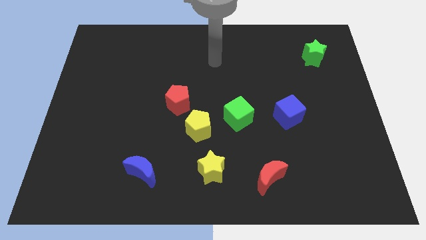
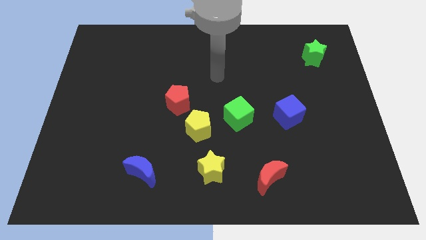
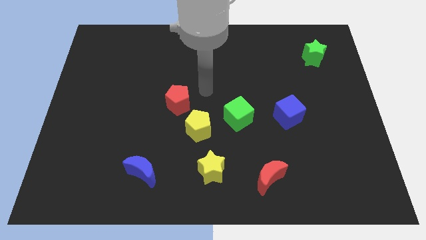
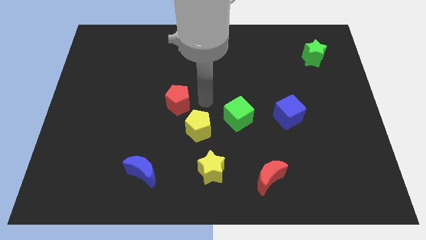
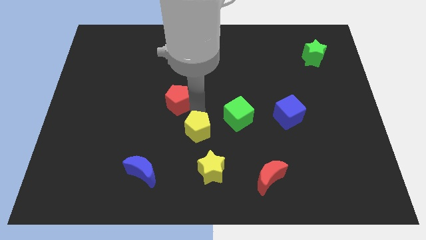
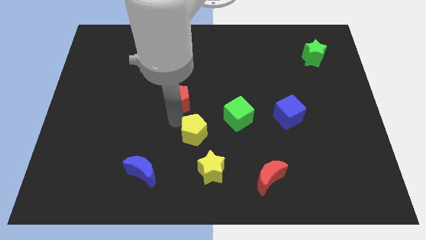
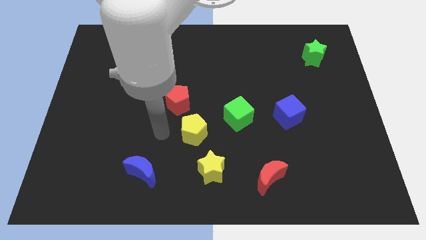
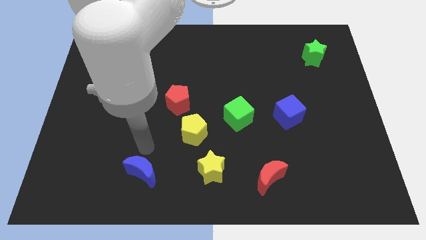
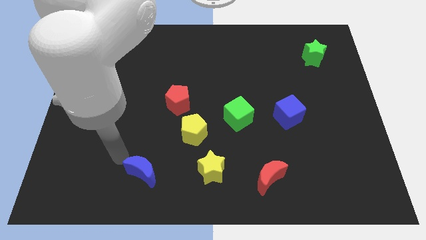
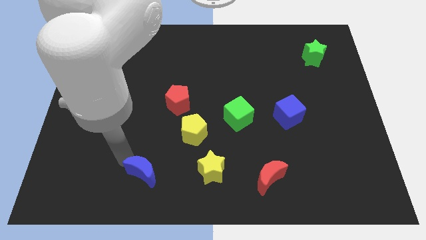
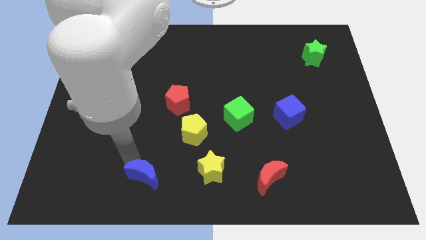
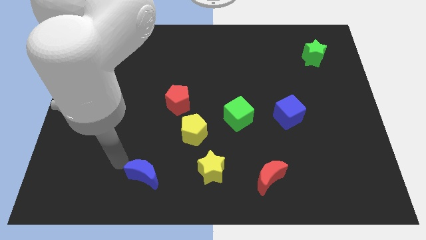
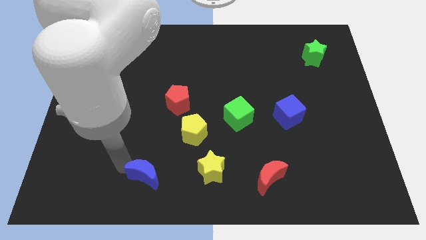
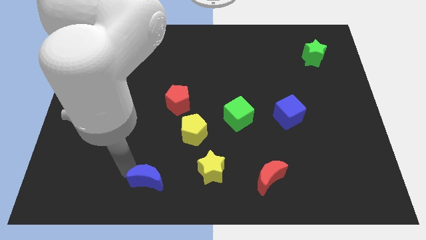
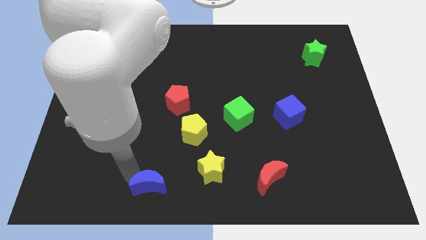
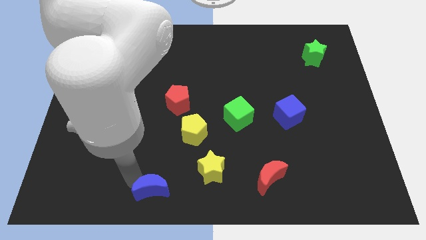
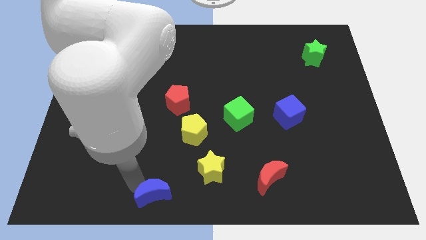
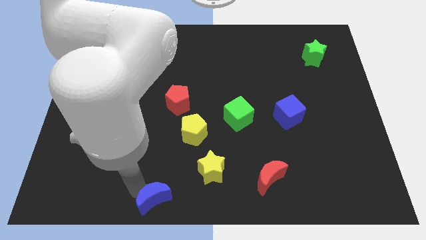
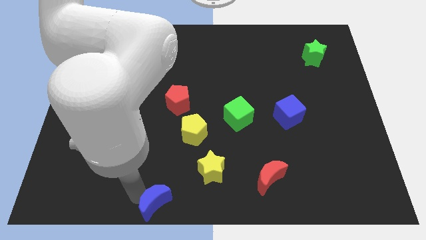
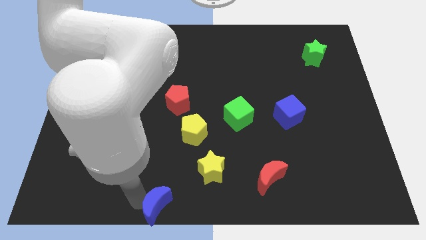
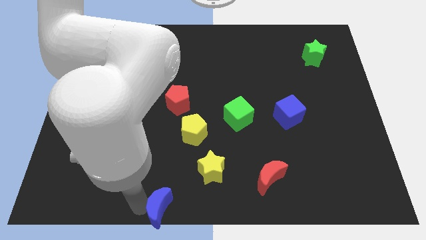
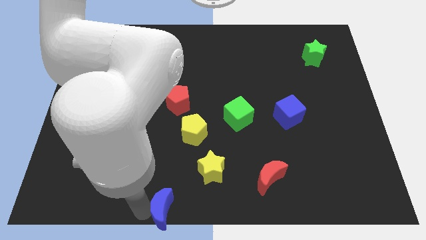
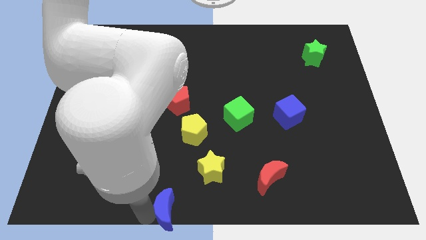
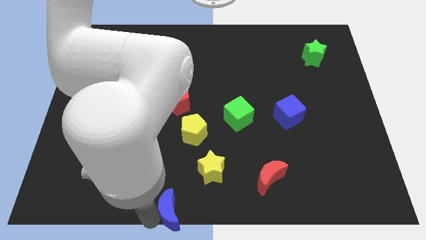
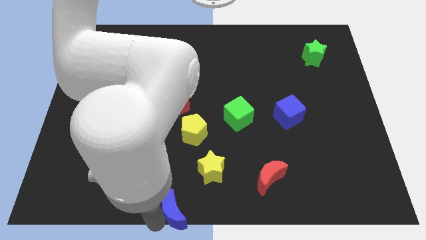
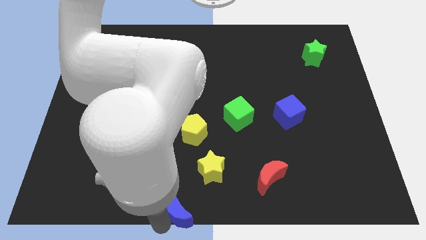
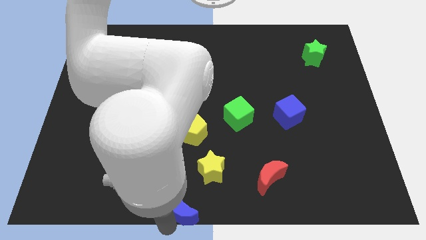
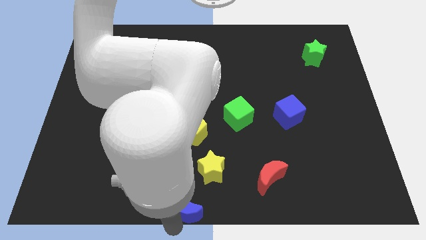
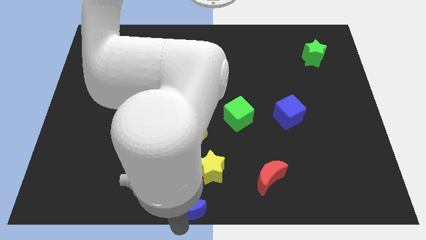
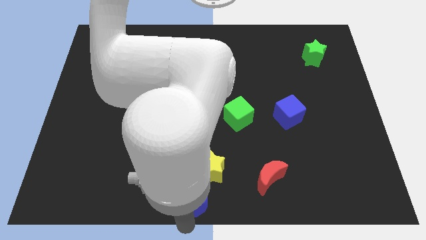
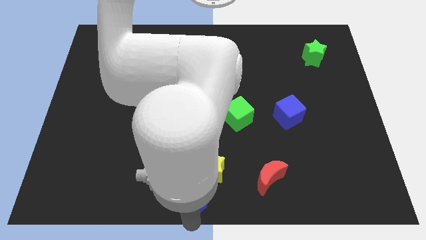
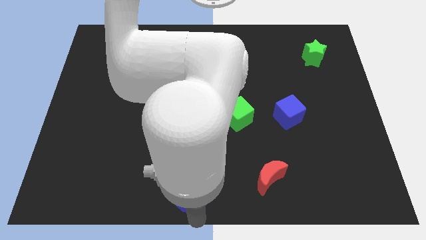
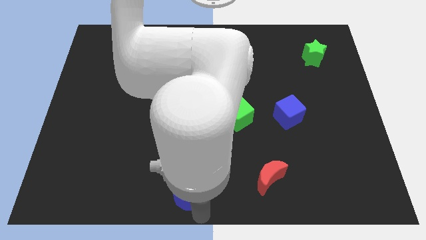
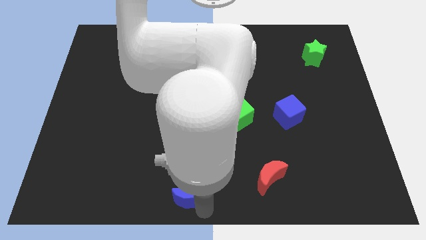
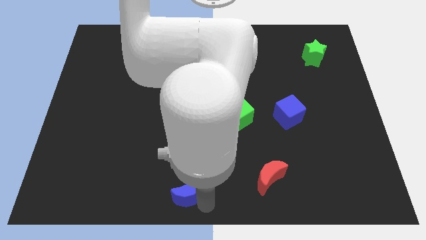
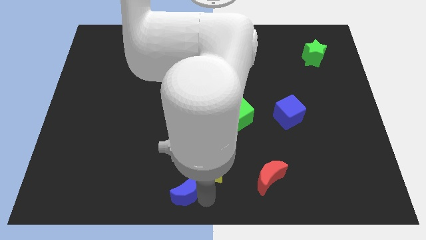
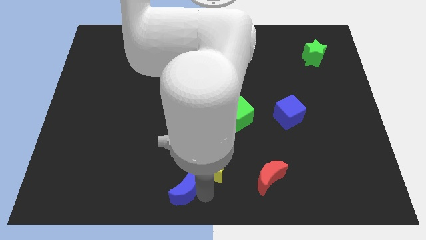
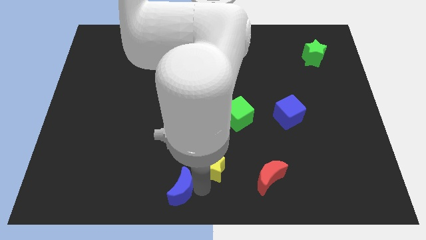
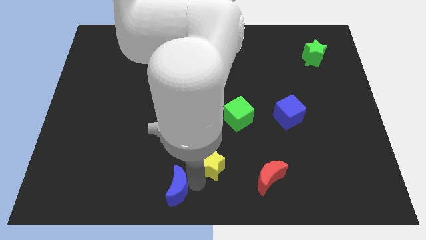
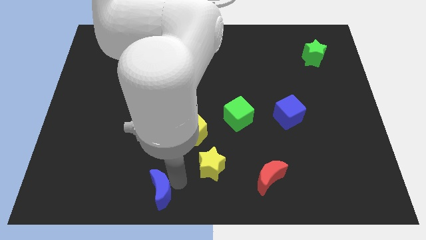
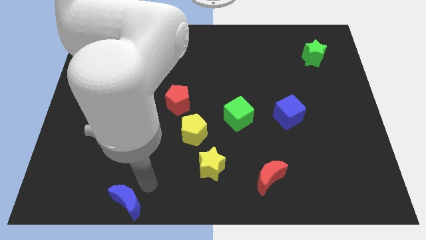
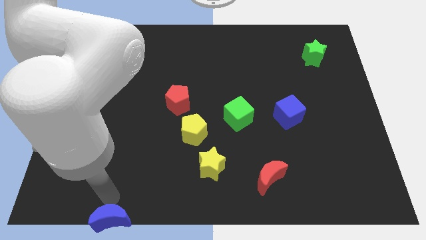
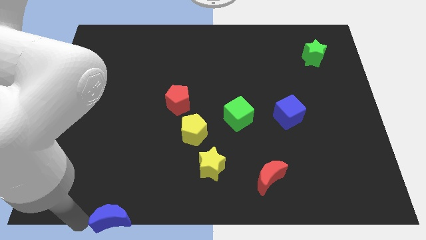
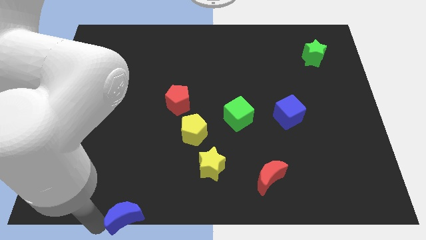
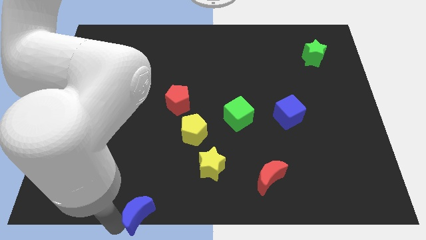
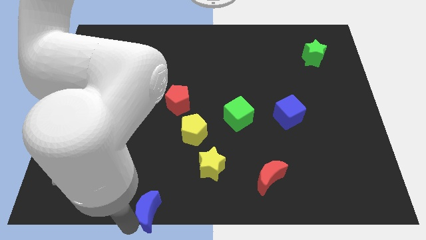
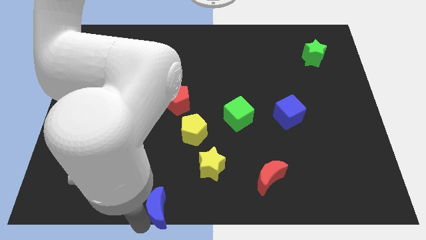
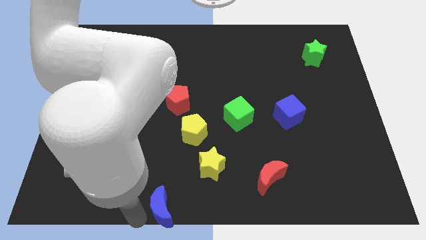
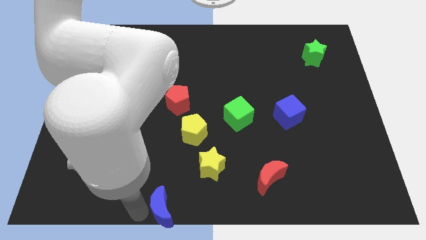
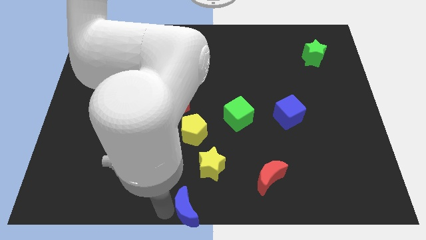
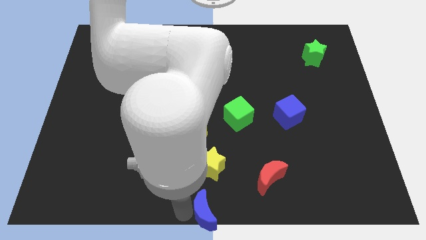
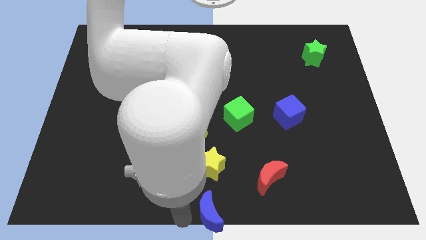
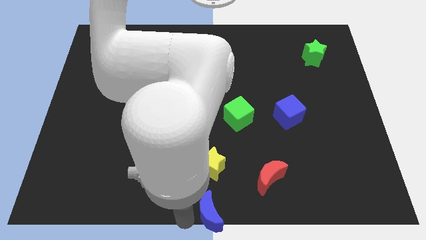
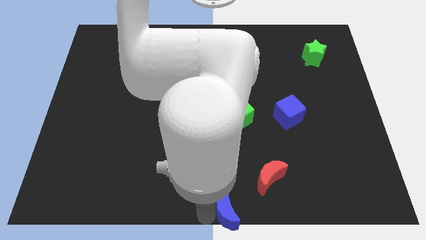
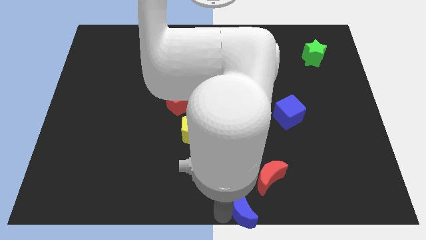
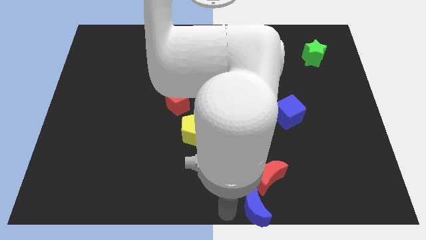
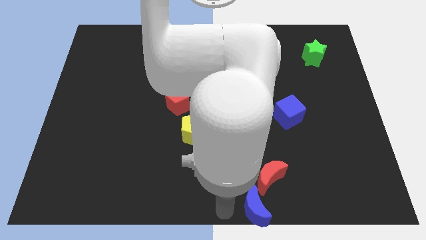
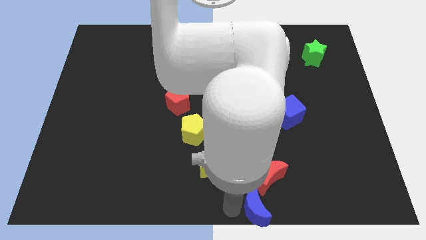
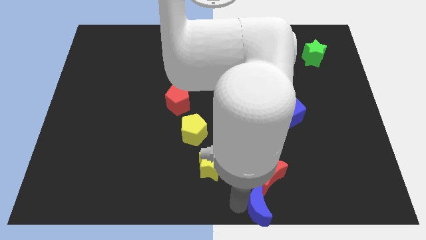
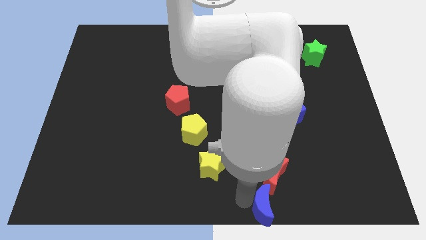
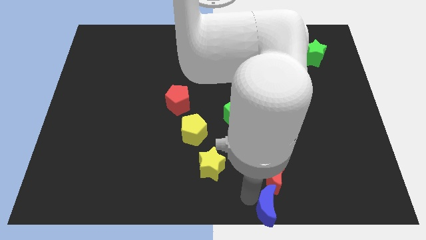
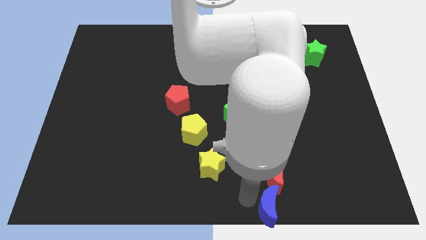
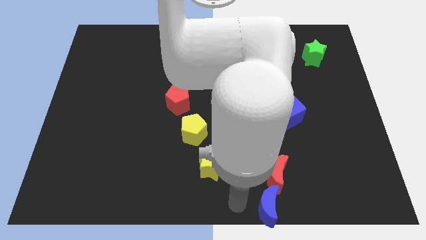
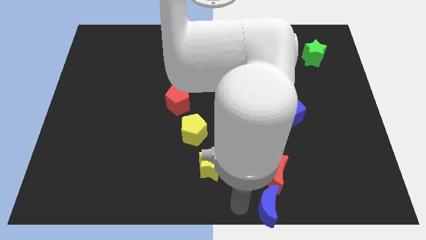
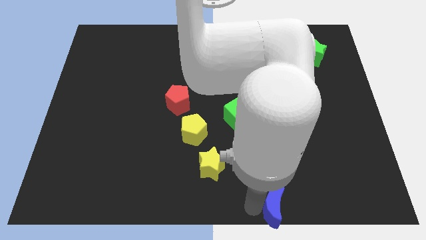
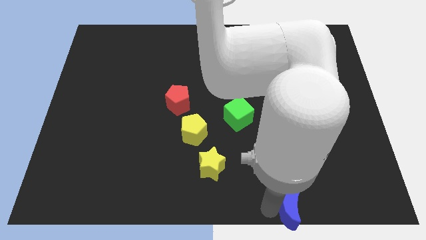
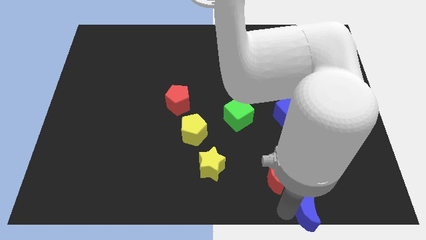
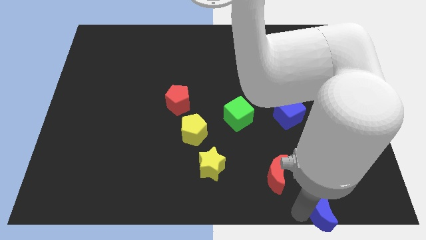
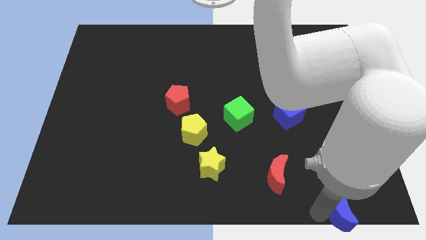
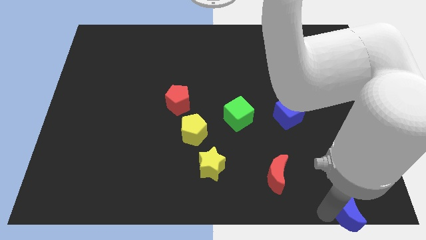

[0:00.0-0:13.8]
slide the blue moon to the bottom right of the board
